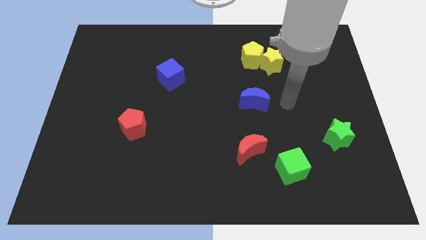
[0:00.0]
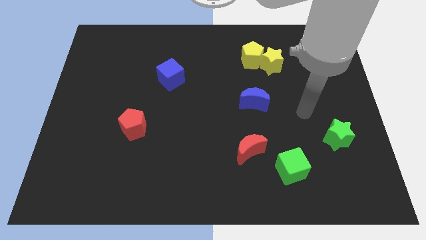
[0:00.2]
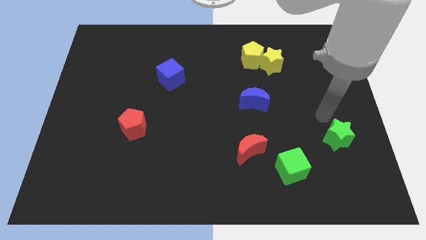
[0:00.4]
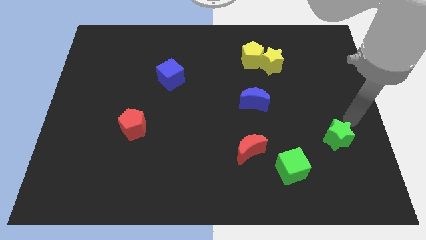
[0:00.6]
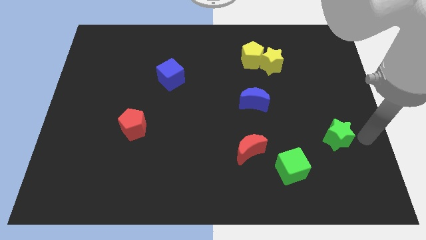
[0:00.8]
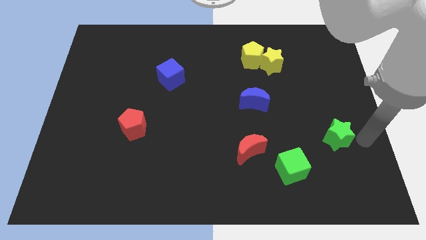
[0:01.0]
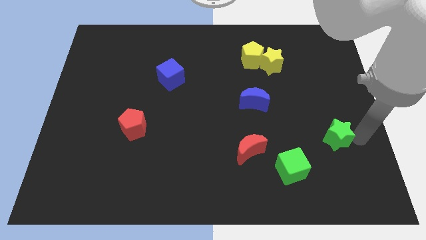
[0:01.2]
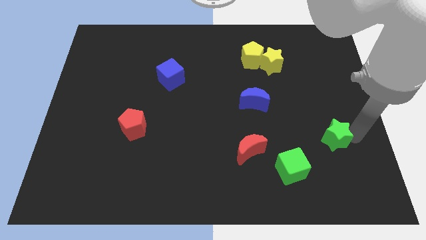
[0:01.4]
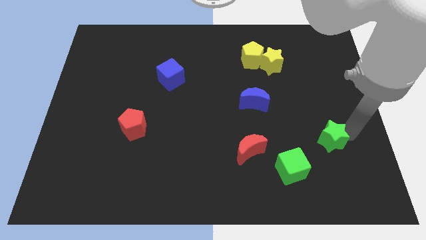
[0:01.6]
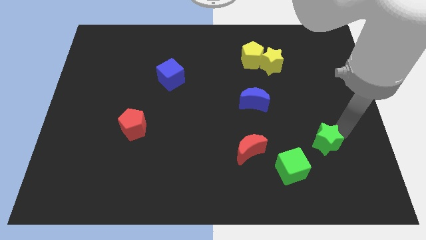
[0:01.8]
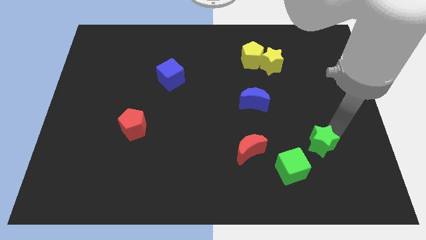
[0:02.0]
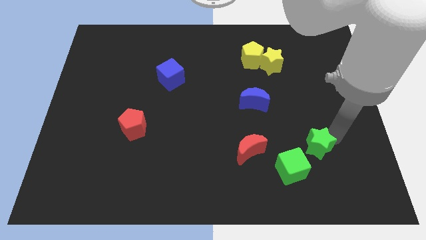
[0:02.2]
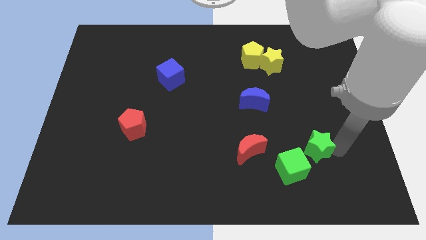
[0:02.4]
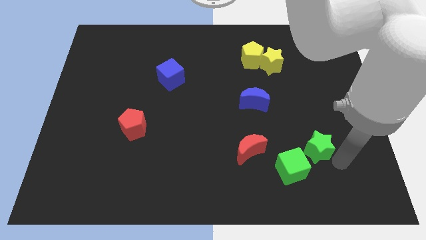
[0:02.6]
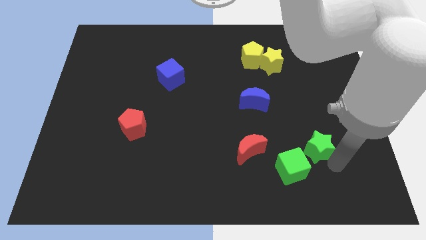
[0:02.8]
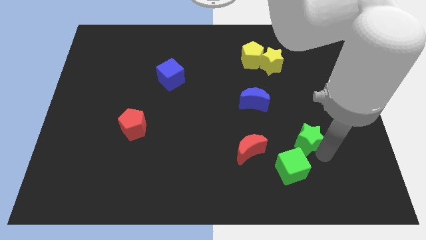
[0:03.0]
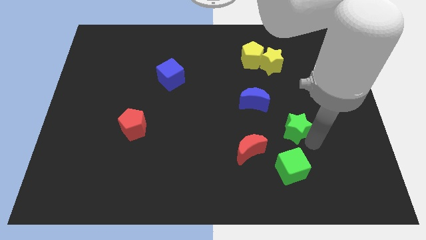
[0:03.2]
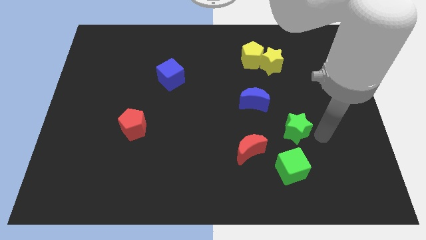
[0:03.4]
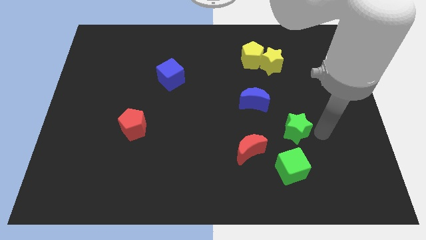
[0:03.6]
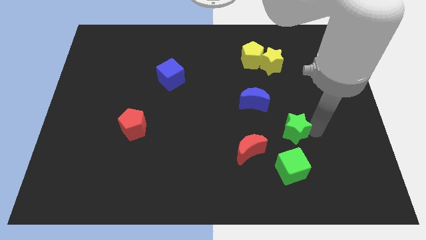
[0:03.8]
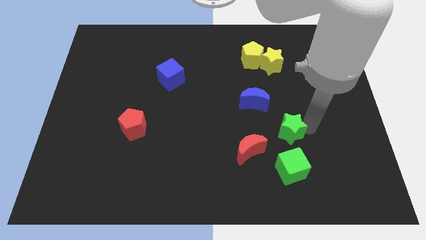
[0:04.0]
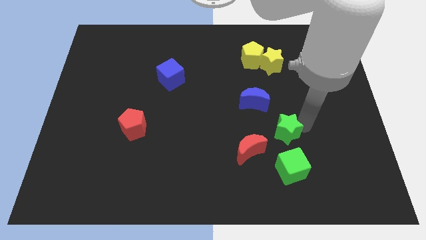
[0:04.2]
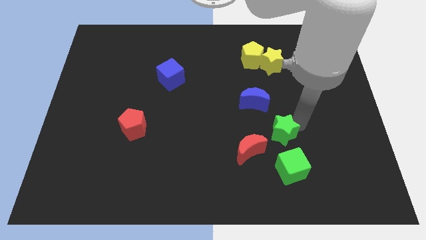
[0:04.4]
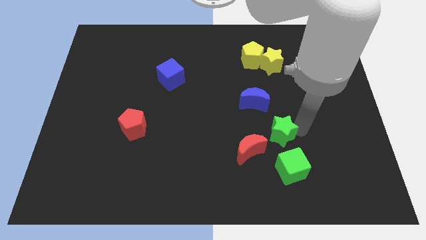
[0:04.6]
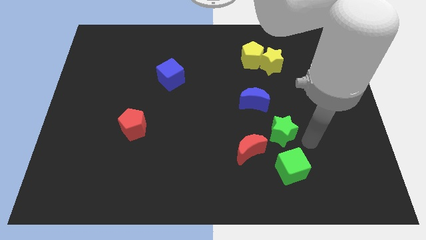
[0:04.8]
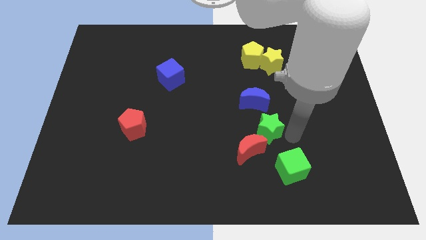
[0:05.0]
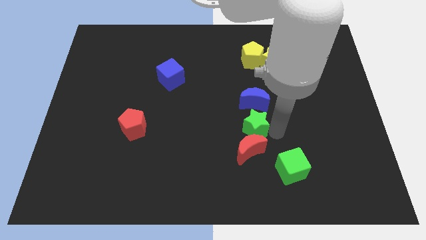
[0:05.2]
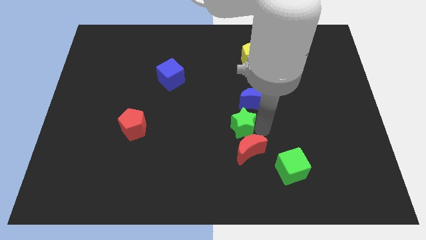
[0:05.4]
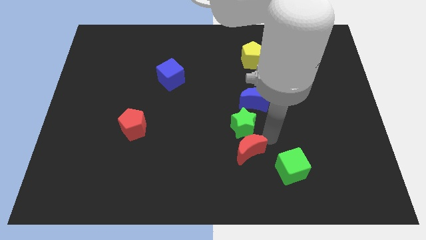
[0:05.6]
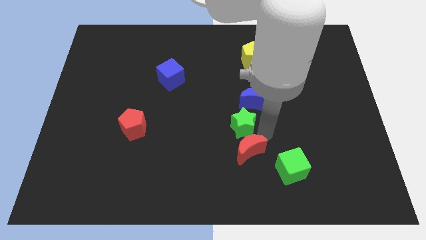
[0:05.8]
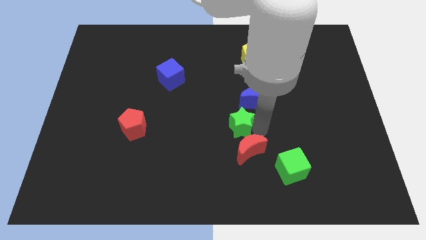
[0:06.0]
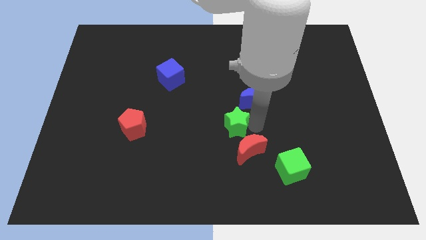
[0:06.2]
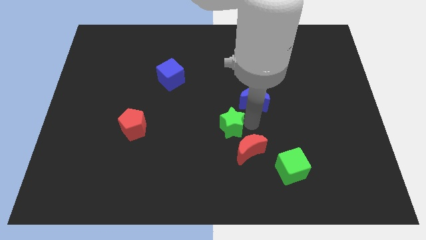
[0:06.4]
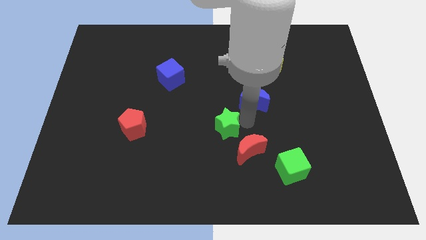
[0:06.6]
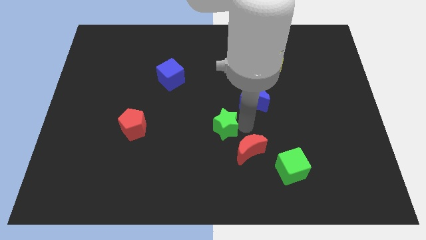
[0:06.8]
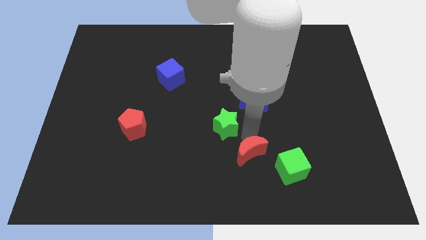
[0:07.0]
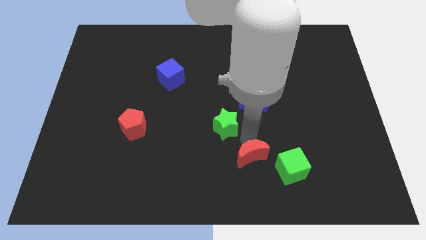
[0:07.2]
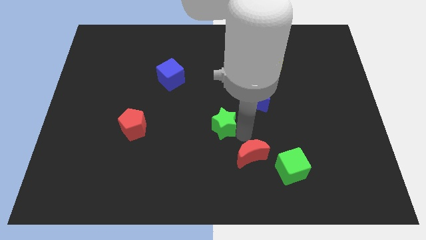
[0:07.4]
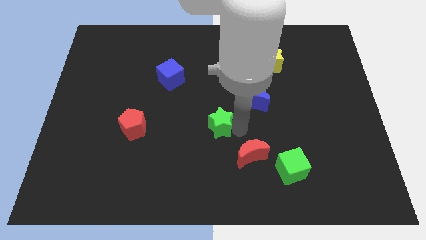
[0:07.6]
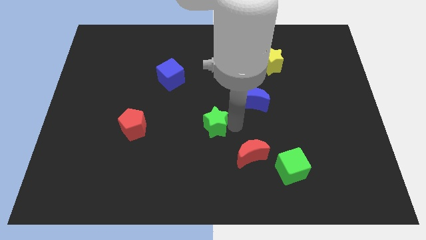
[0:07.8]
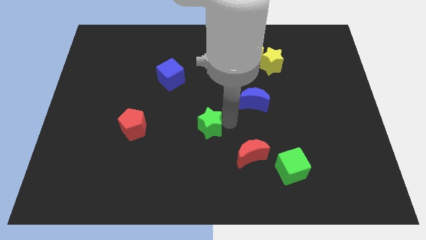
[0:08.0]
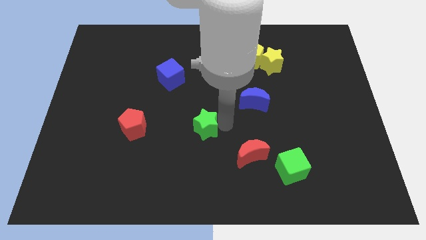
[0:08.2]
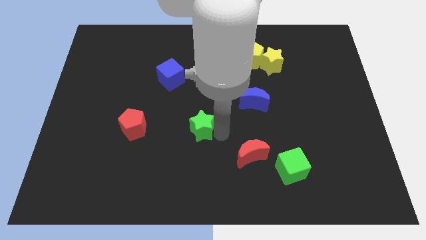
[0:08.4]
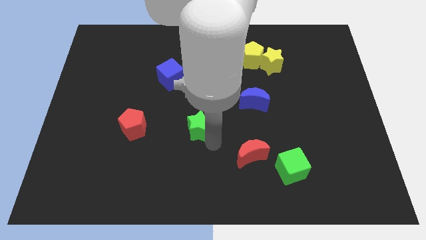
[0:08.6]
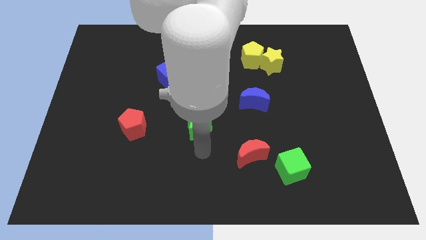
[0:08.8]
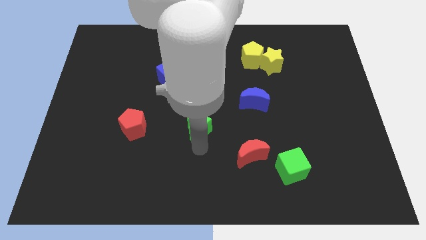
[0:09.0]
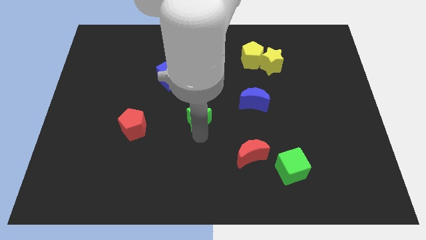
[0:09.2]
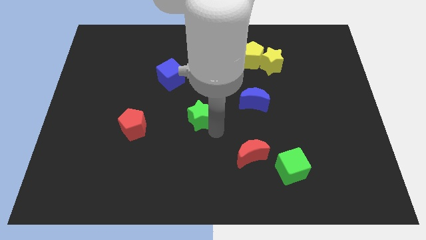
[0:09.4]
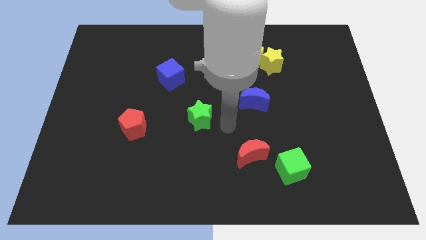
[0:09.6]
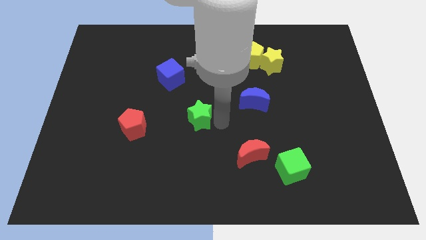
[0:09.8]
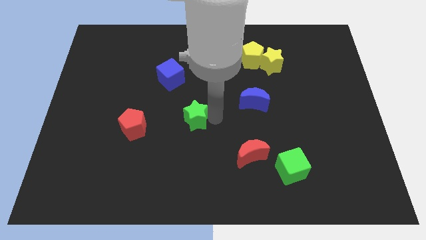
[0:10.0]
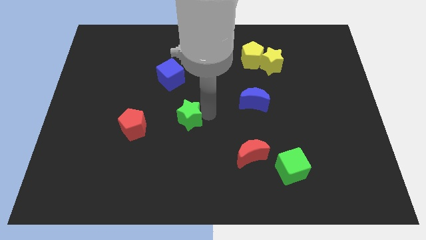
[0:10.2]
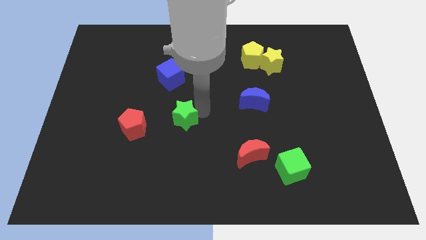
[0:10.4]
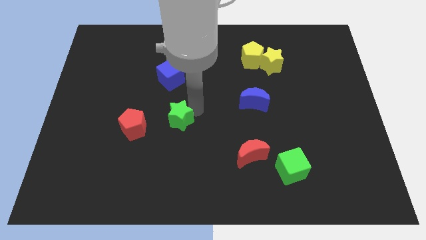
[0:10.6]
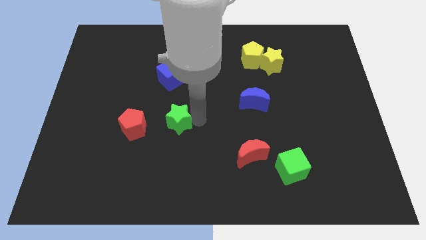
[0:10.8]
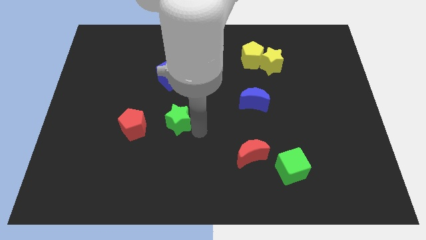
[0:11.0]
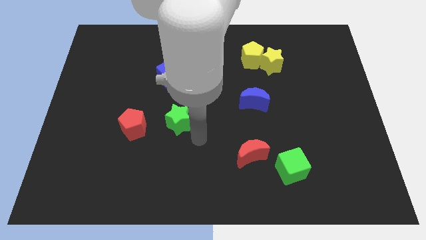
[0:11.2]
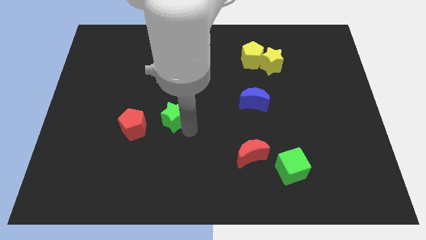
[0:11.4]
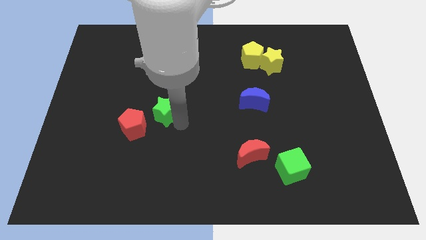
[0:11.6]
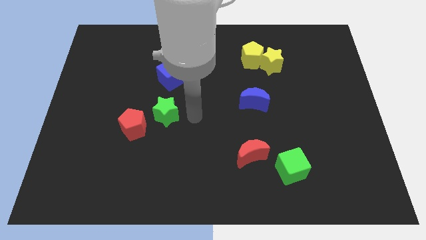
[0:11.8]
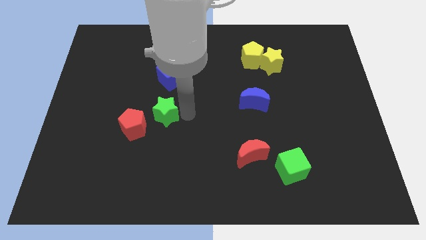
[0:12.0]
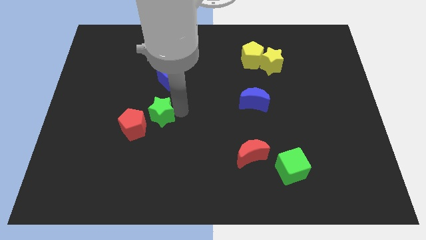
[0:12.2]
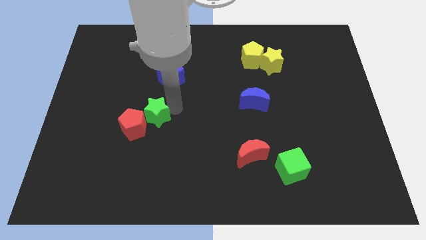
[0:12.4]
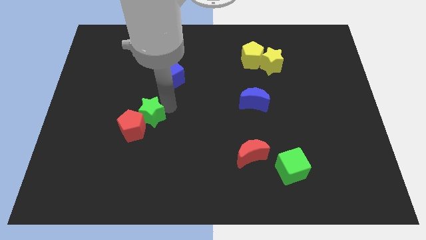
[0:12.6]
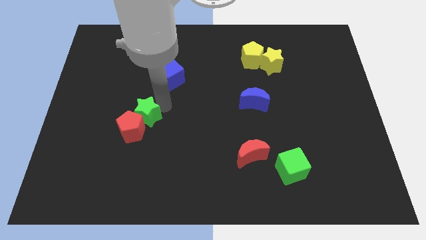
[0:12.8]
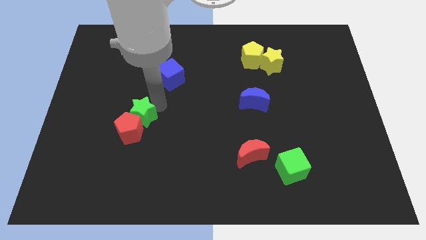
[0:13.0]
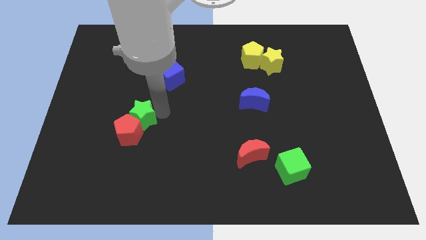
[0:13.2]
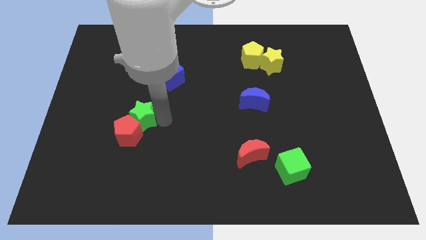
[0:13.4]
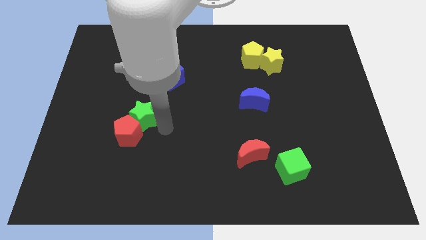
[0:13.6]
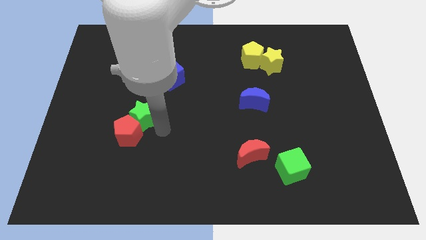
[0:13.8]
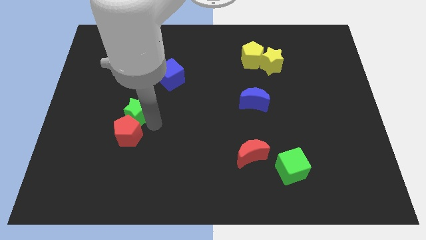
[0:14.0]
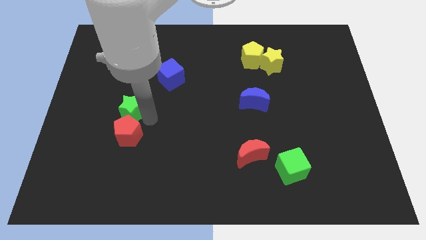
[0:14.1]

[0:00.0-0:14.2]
slide the green star to the top left side of the red pentagon
